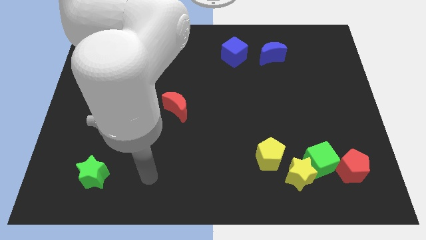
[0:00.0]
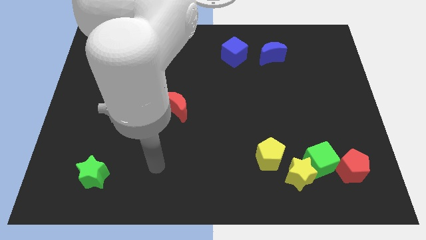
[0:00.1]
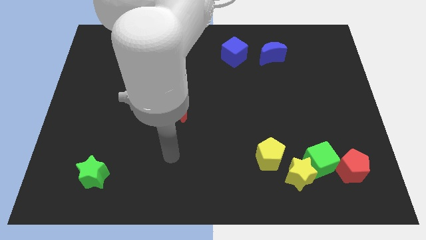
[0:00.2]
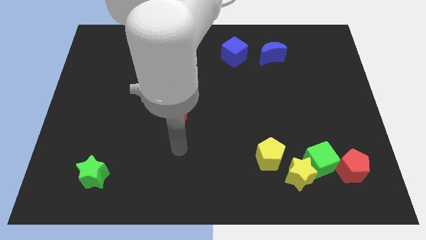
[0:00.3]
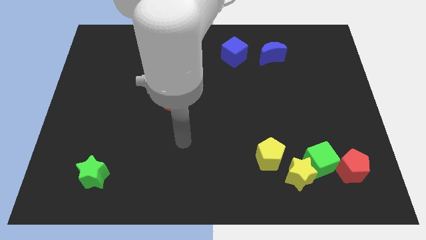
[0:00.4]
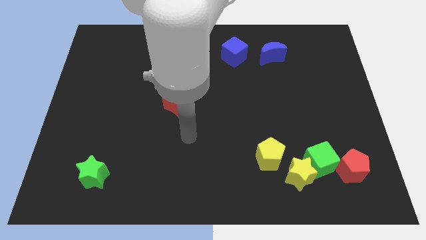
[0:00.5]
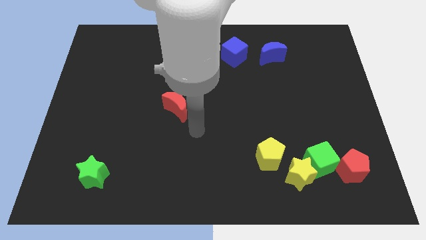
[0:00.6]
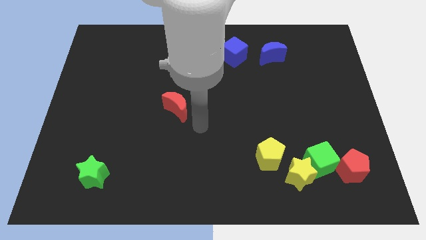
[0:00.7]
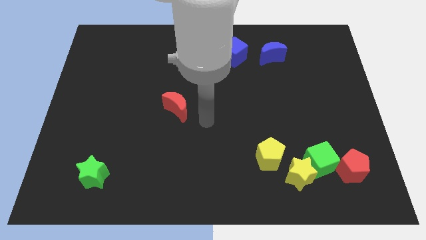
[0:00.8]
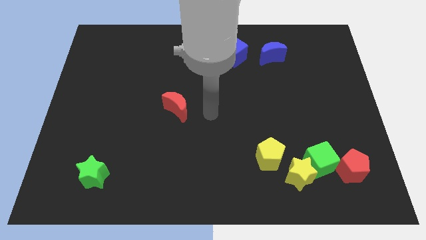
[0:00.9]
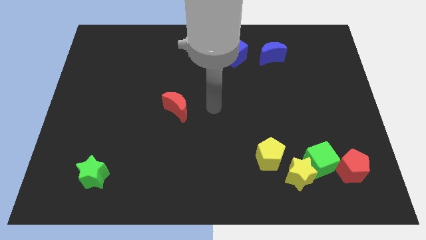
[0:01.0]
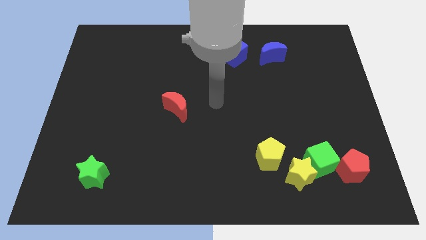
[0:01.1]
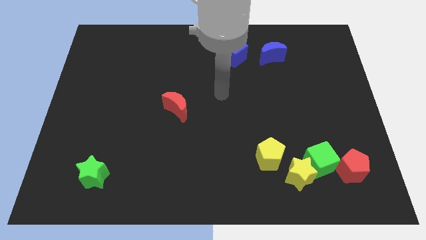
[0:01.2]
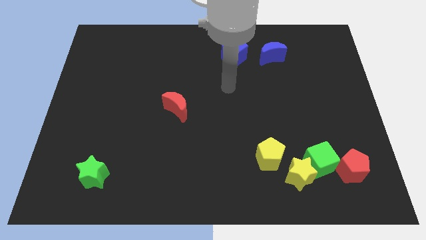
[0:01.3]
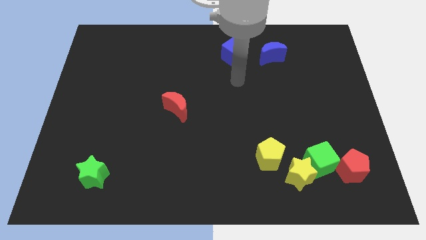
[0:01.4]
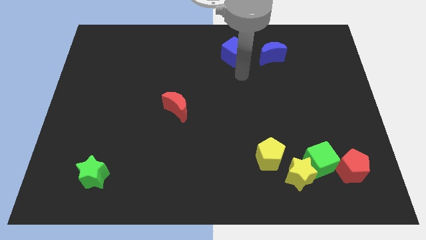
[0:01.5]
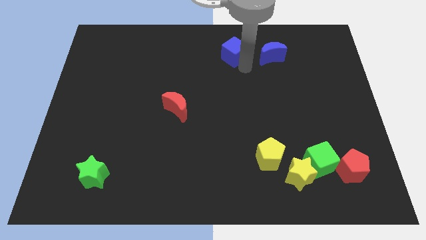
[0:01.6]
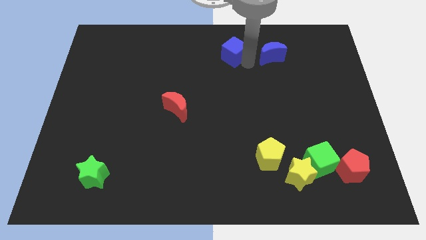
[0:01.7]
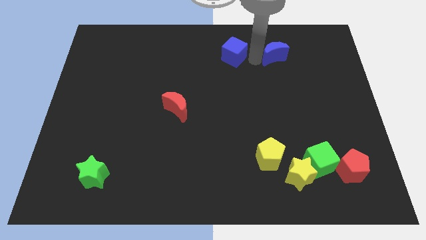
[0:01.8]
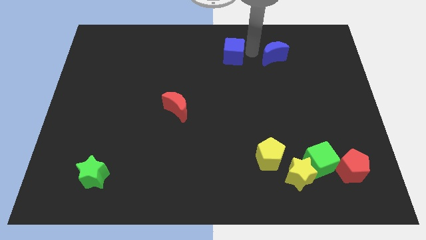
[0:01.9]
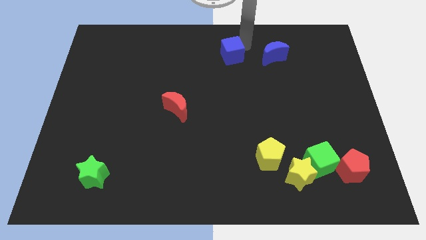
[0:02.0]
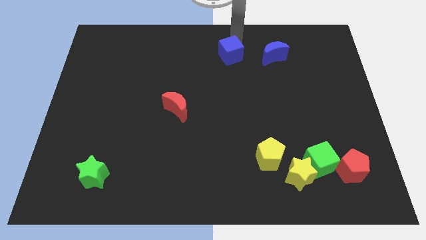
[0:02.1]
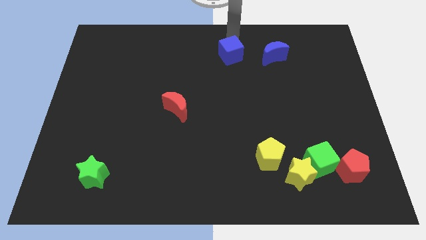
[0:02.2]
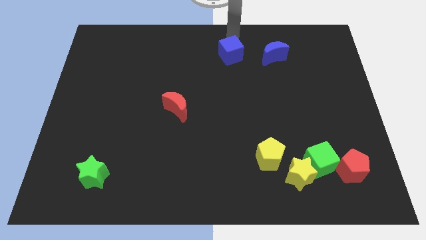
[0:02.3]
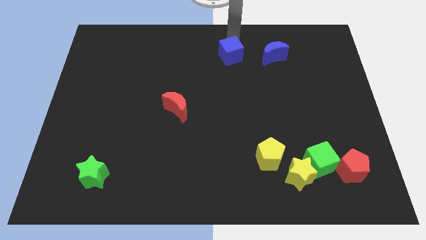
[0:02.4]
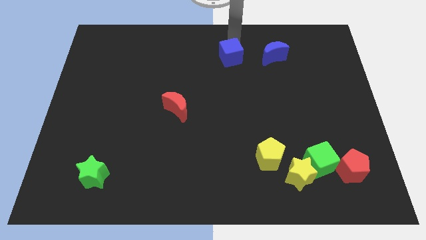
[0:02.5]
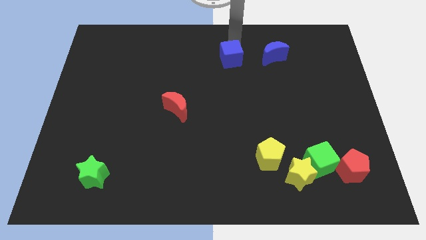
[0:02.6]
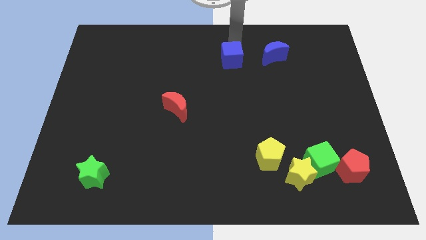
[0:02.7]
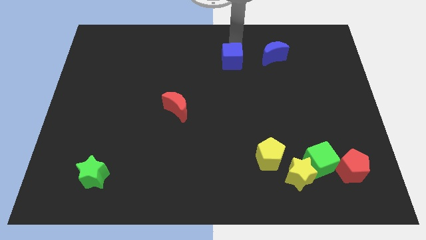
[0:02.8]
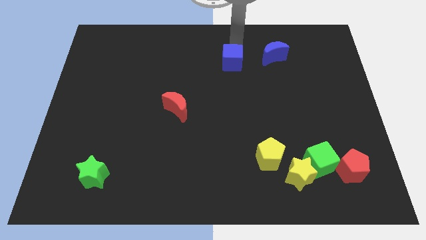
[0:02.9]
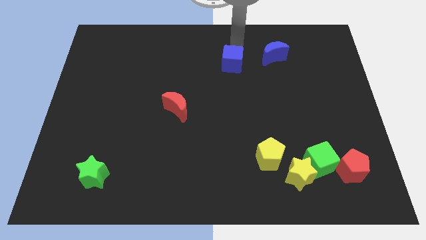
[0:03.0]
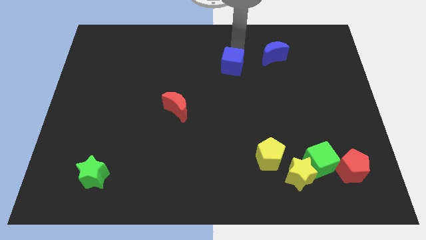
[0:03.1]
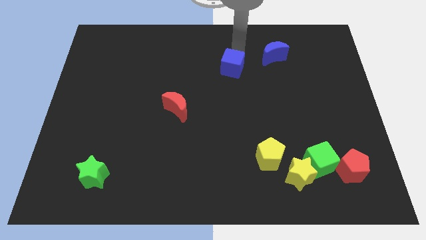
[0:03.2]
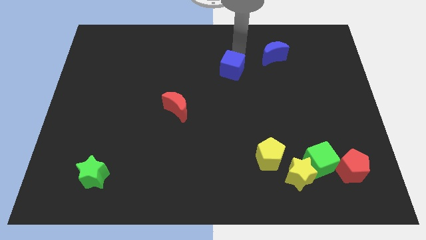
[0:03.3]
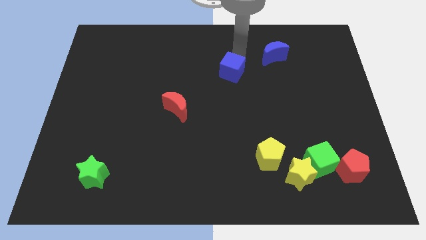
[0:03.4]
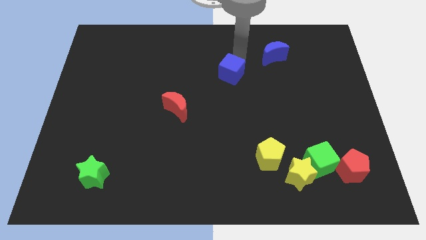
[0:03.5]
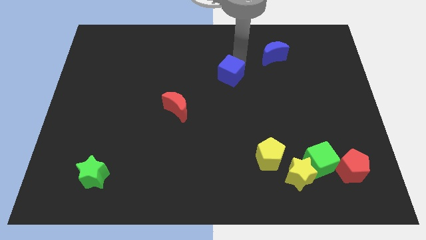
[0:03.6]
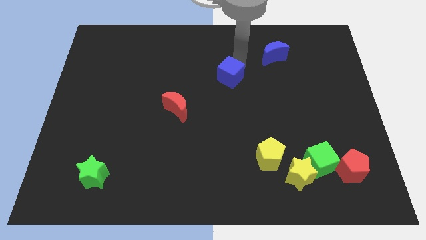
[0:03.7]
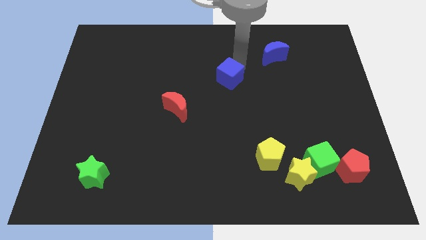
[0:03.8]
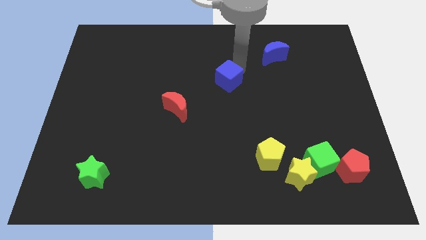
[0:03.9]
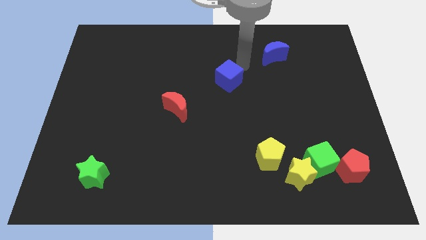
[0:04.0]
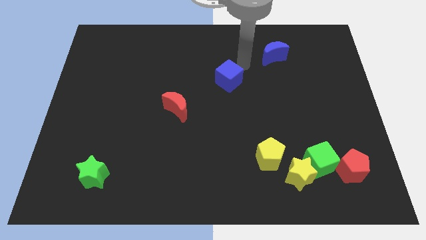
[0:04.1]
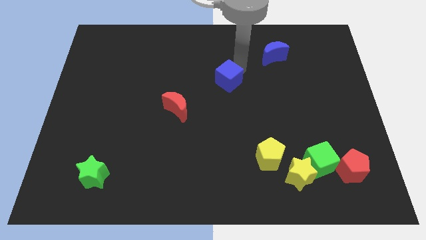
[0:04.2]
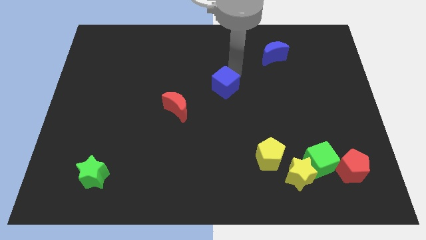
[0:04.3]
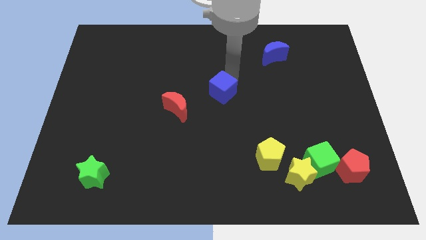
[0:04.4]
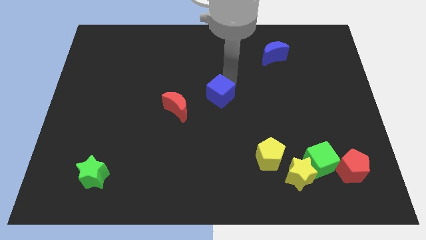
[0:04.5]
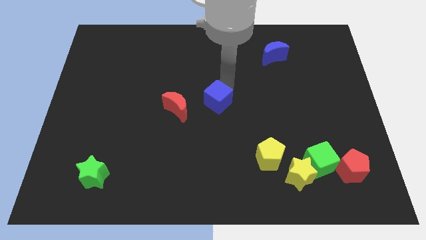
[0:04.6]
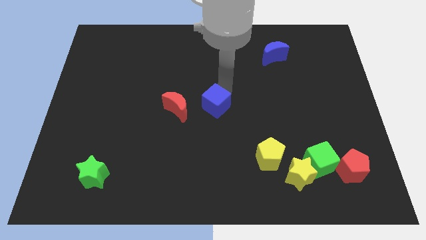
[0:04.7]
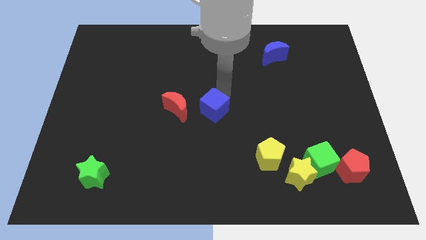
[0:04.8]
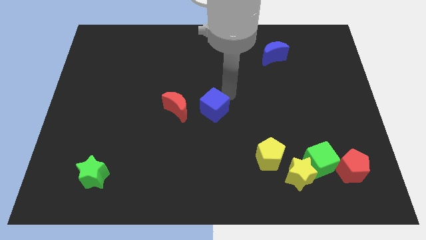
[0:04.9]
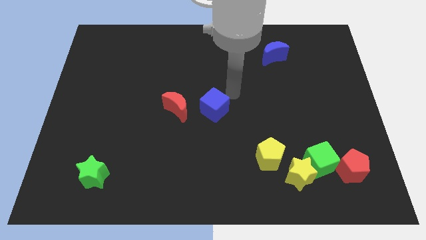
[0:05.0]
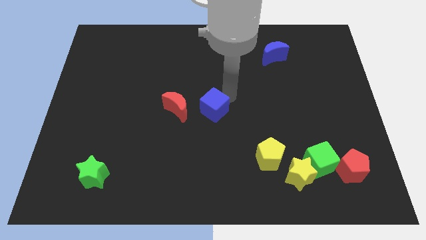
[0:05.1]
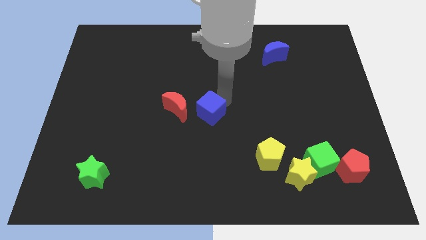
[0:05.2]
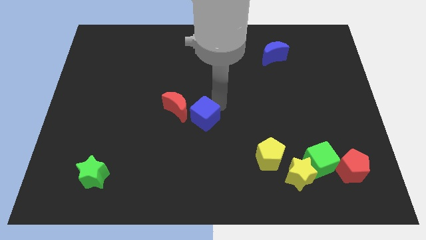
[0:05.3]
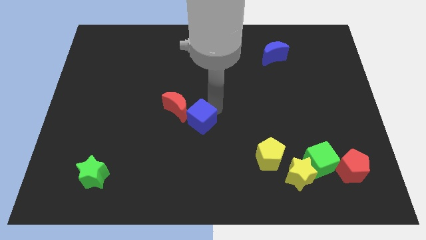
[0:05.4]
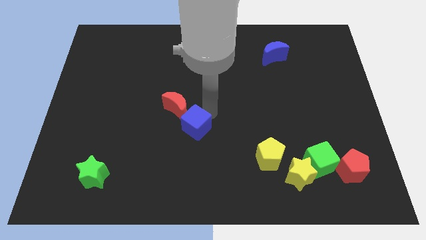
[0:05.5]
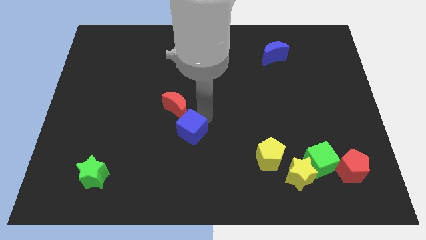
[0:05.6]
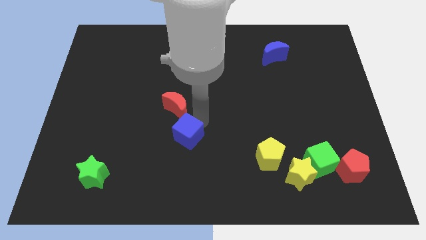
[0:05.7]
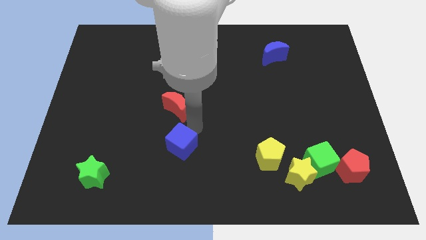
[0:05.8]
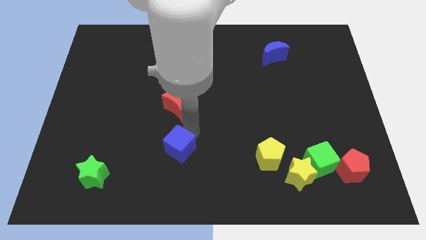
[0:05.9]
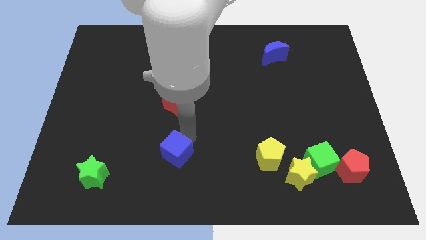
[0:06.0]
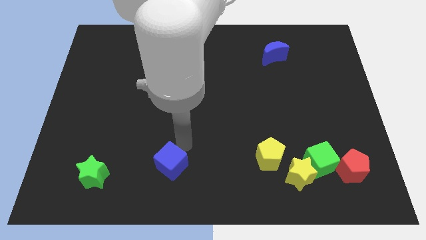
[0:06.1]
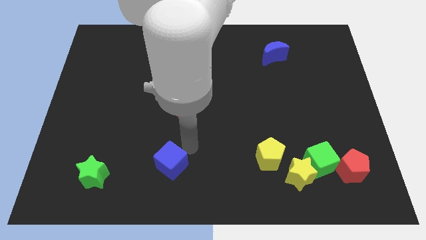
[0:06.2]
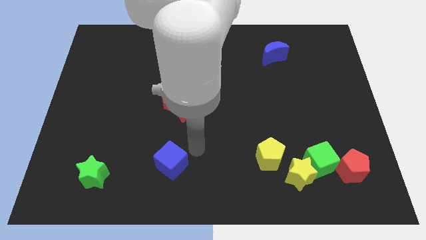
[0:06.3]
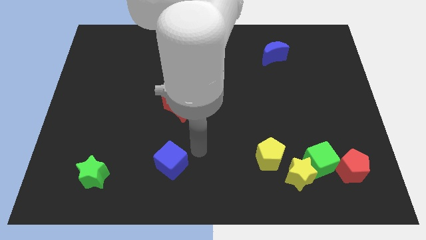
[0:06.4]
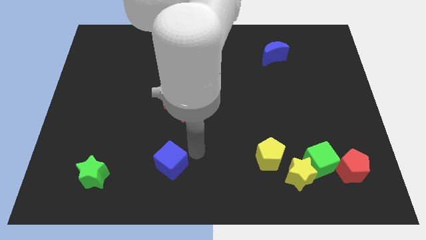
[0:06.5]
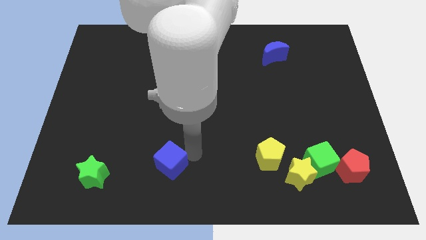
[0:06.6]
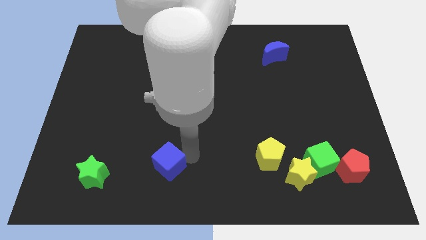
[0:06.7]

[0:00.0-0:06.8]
put the blue cube right of the green star
